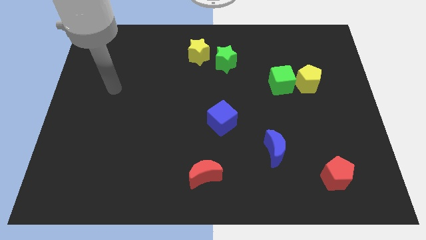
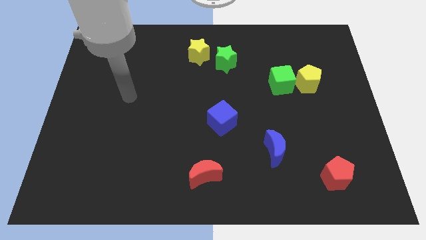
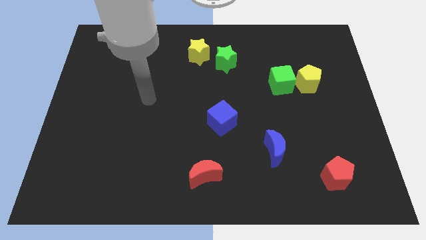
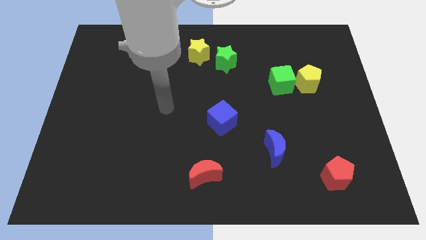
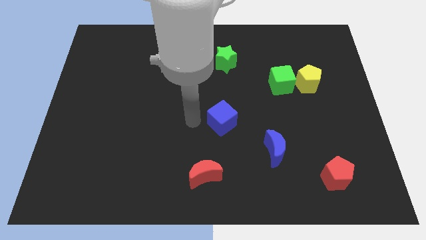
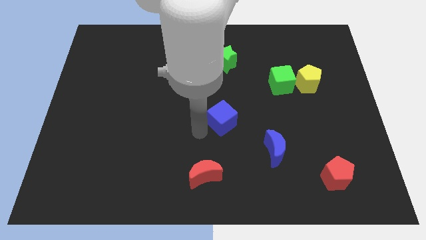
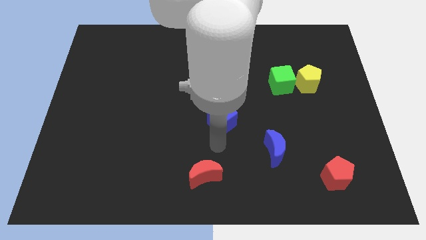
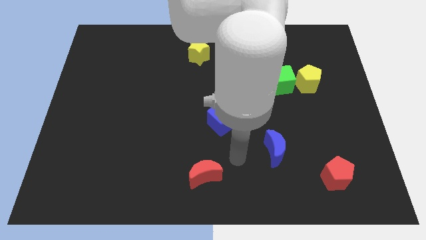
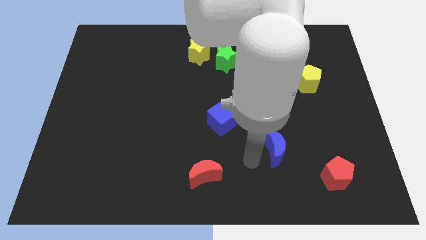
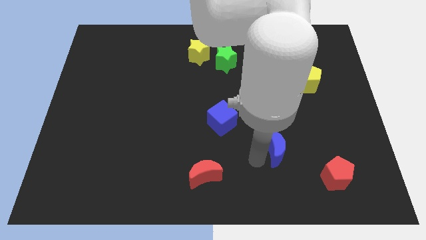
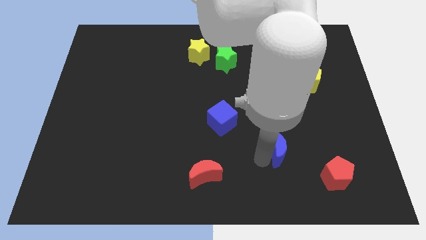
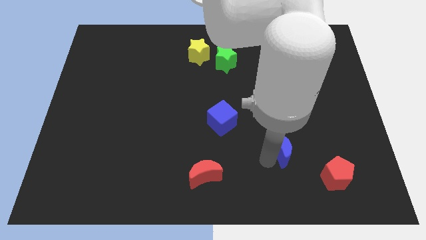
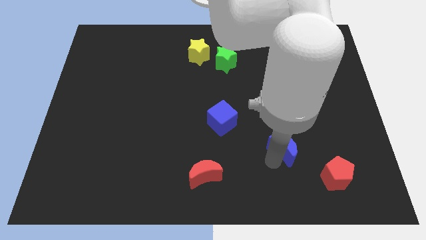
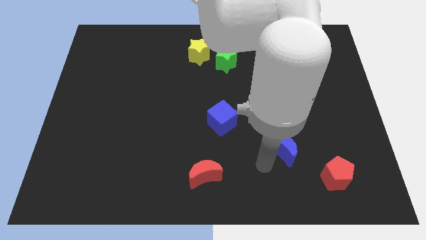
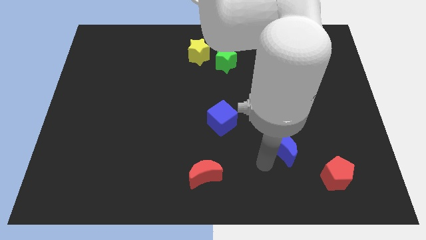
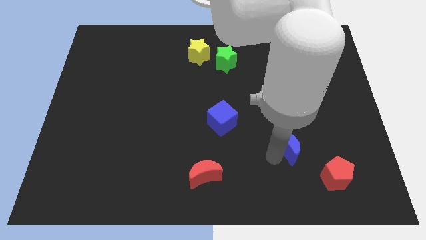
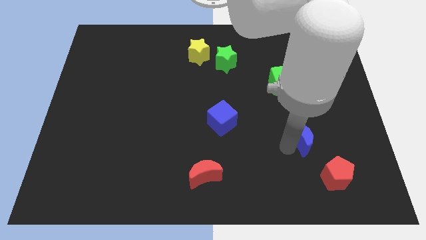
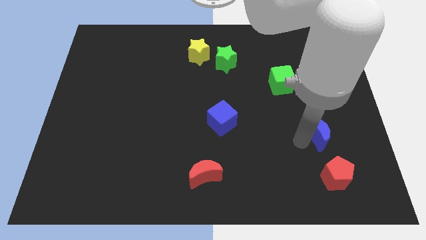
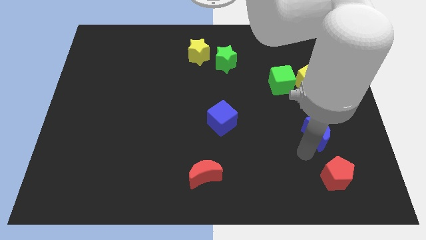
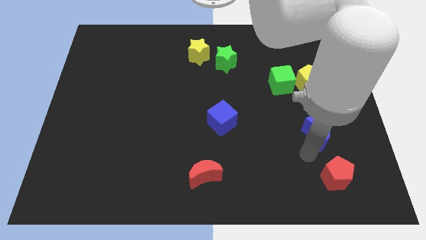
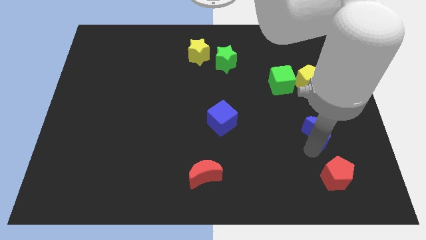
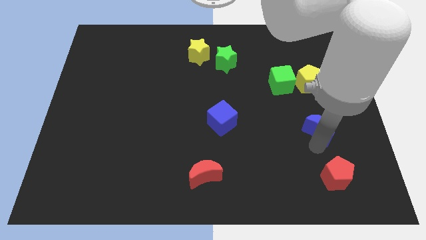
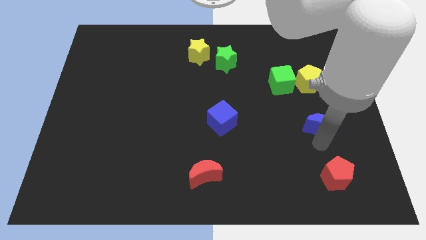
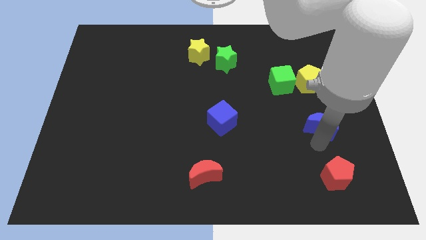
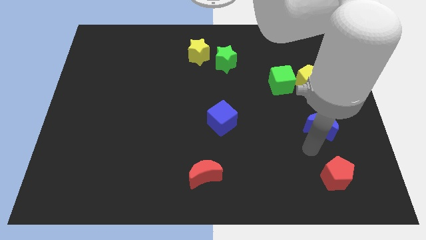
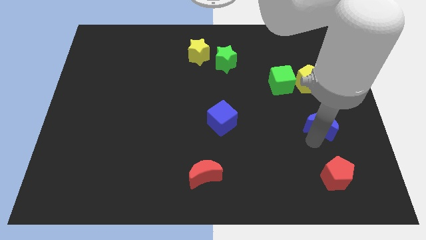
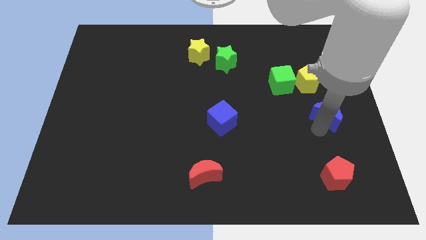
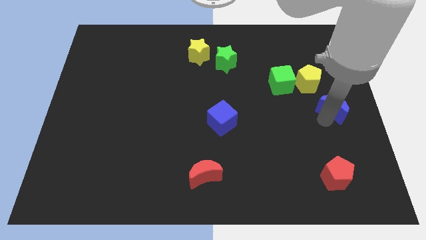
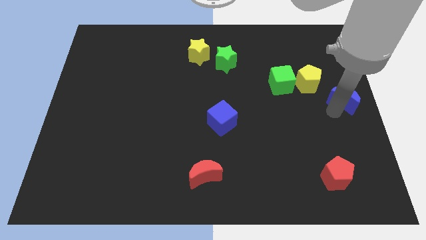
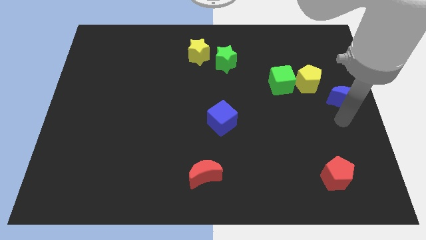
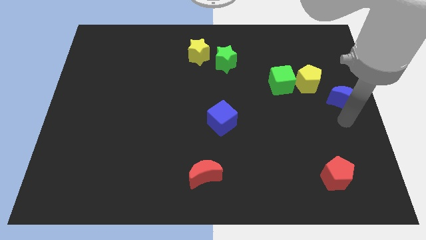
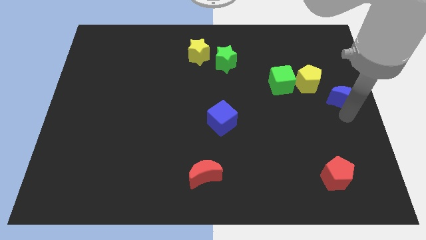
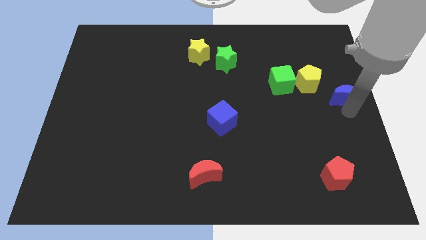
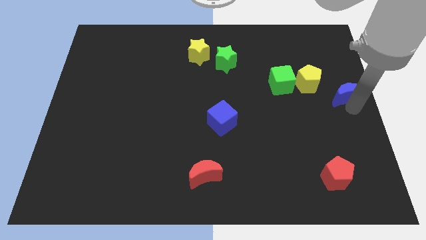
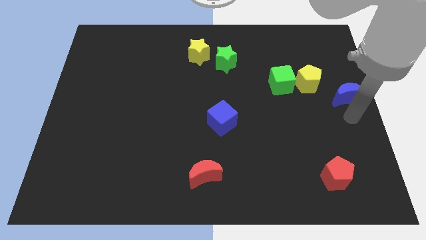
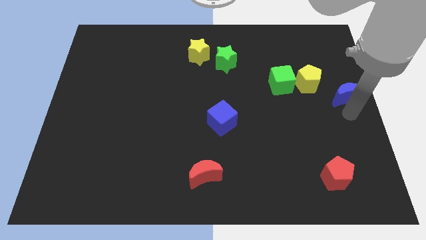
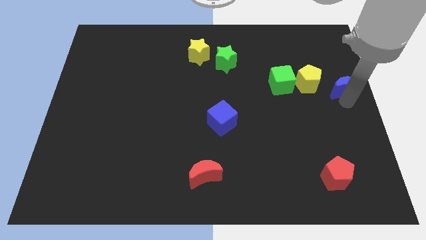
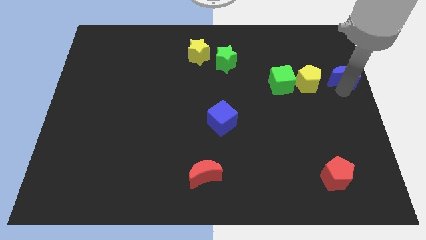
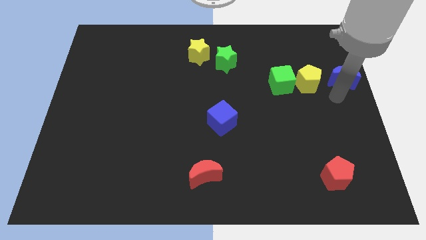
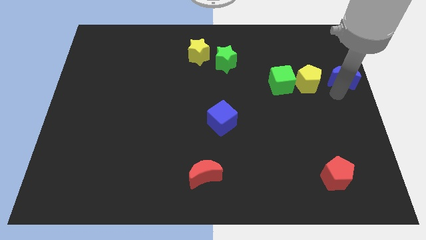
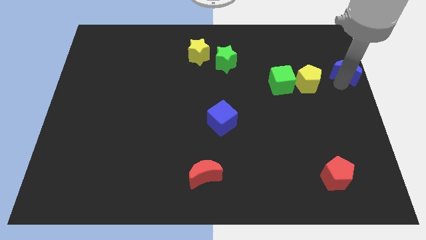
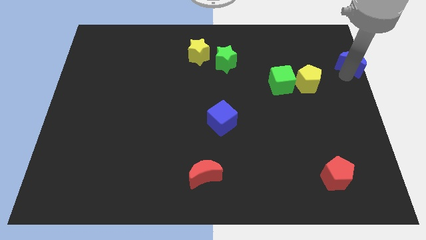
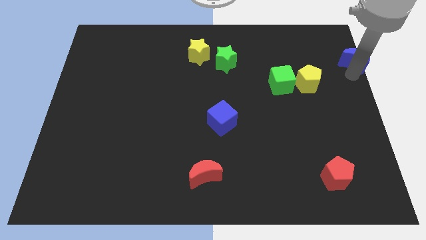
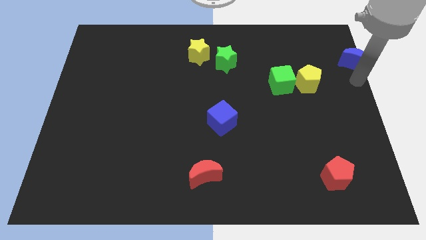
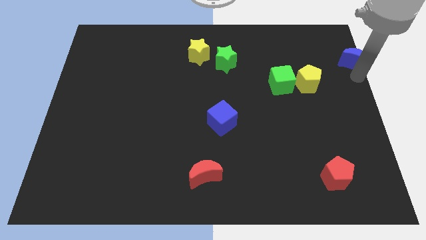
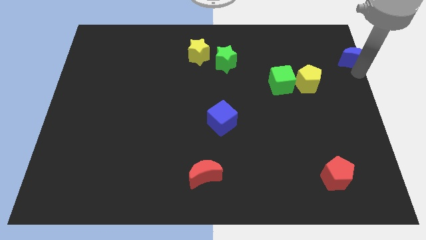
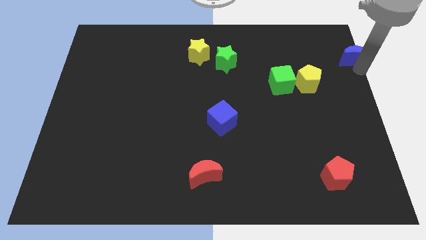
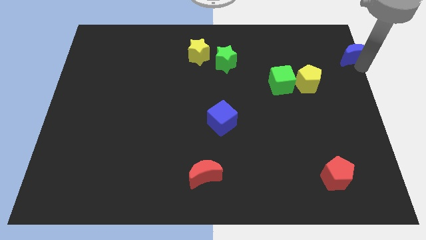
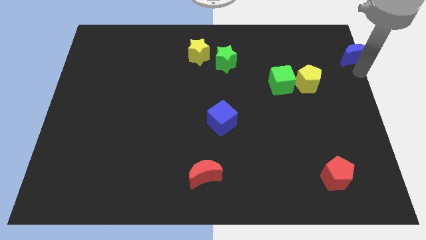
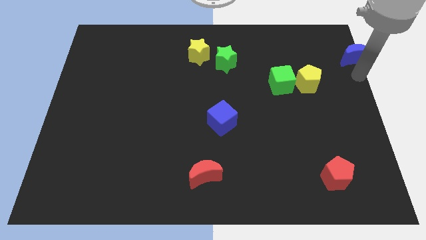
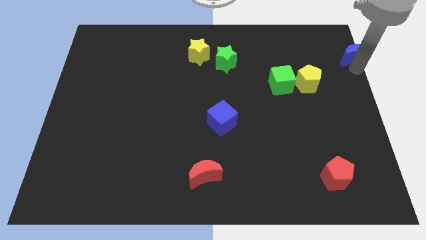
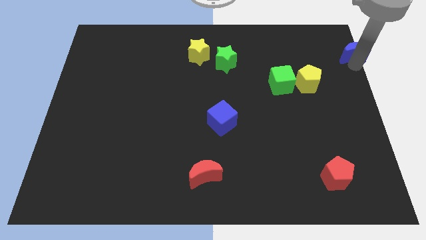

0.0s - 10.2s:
put the blue moon to the top right of the board

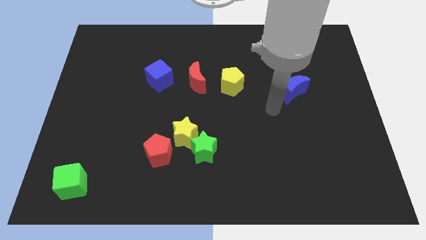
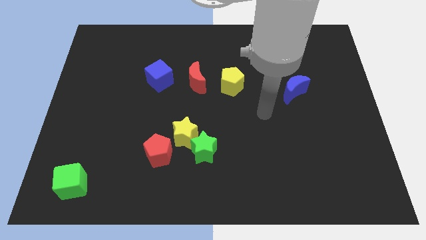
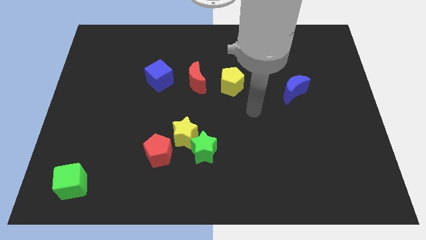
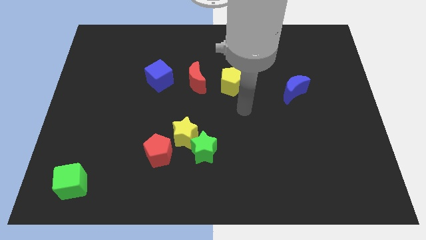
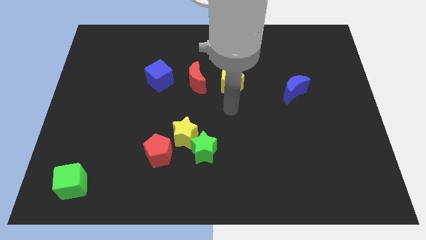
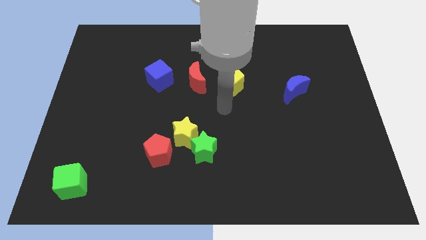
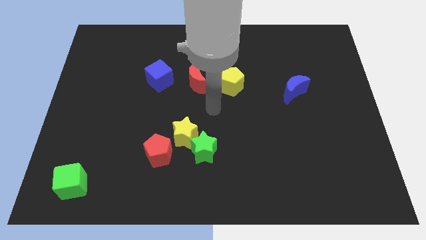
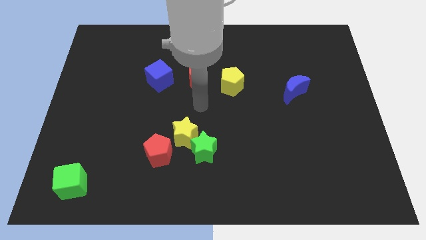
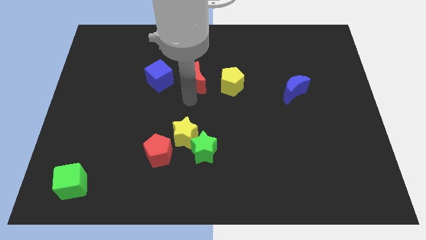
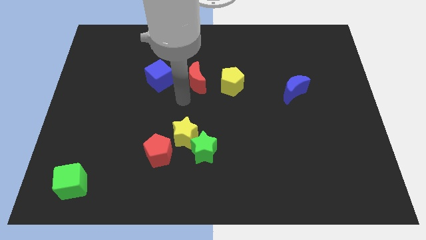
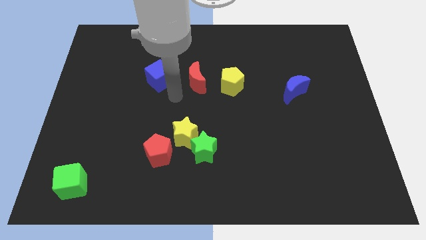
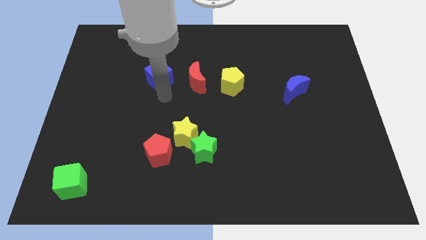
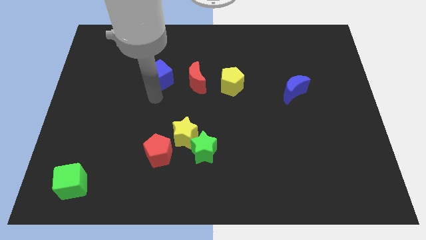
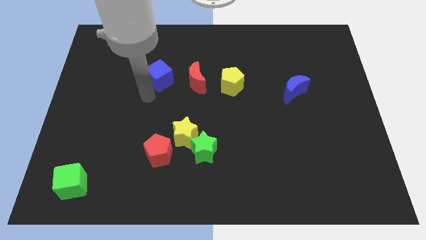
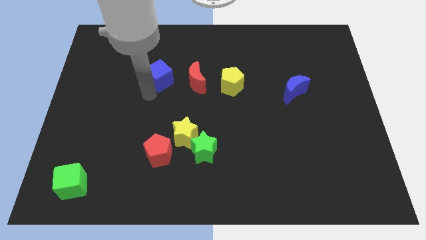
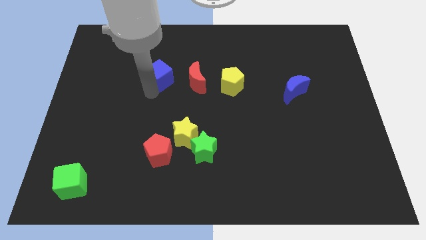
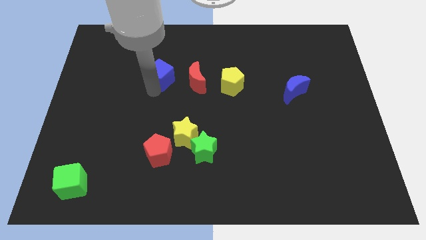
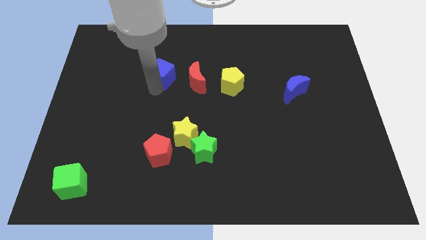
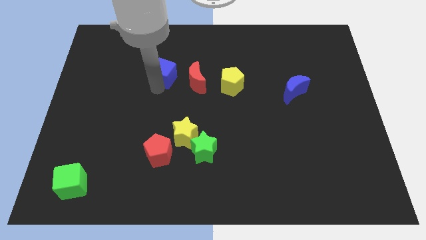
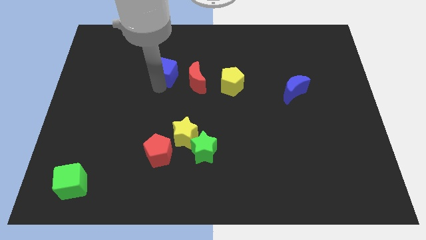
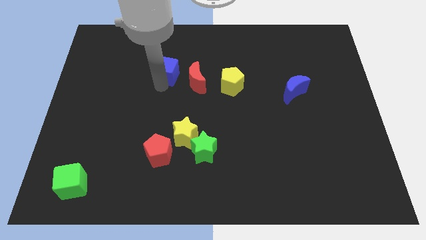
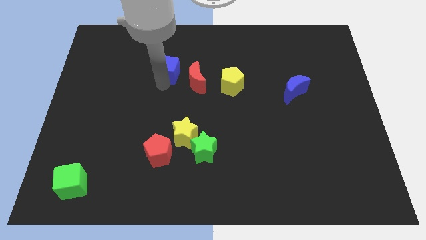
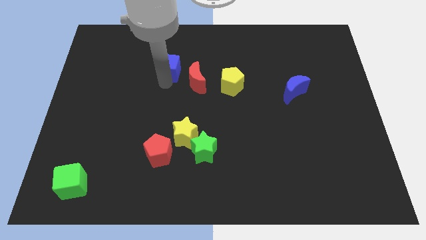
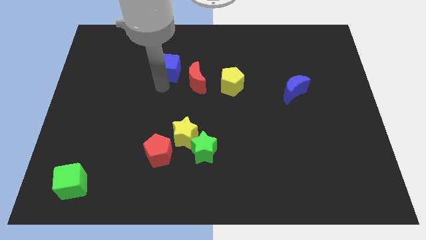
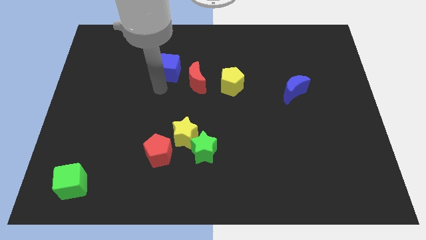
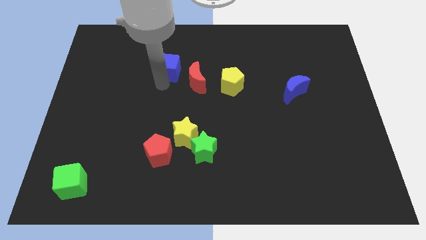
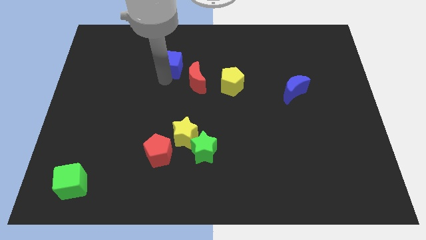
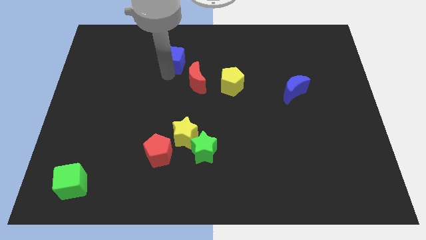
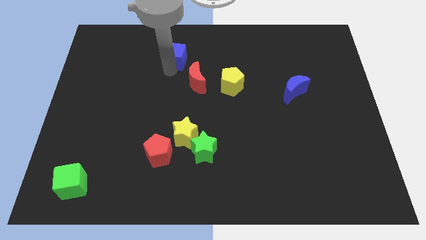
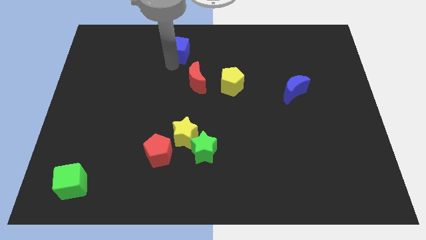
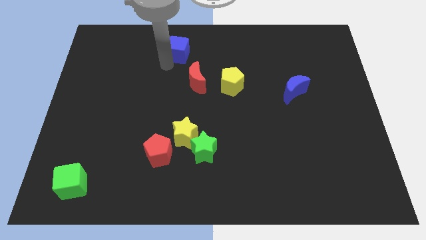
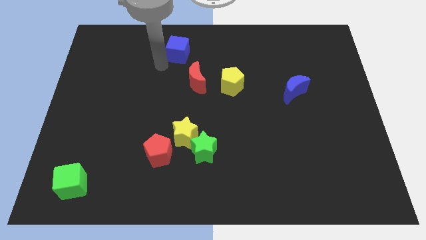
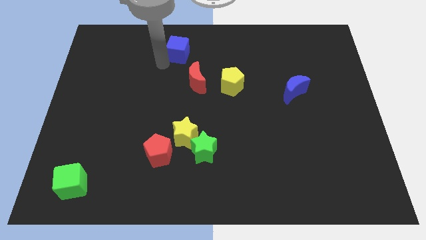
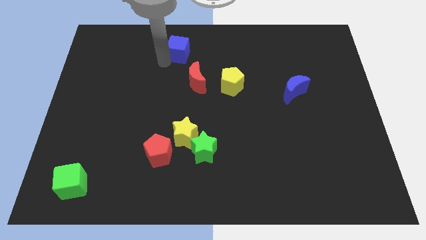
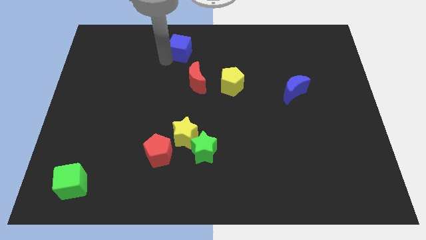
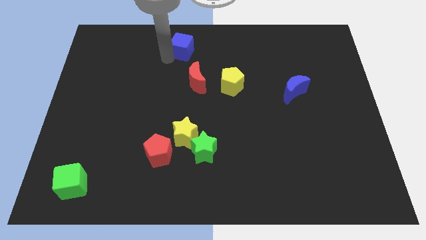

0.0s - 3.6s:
move the blue cube to the top side
